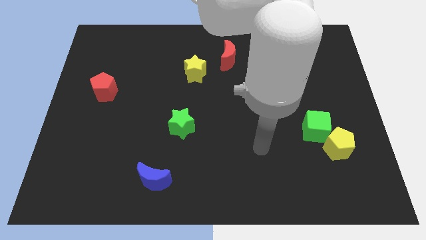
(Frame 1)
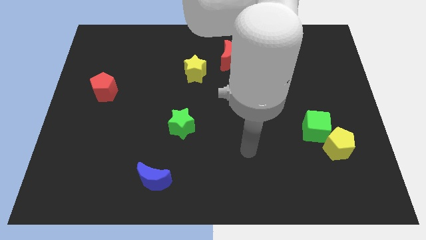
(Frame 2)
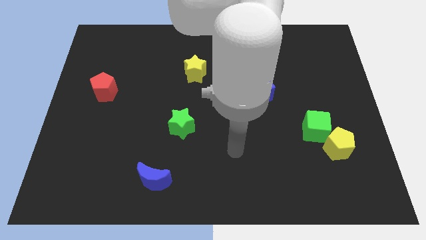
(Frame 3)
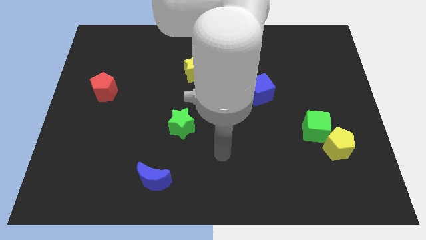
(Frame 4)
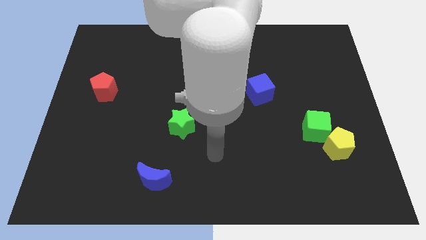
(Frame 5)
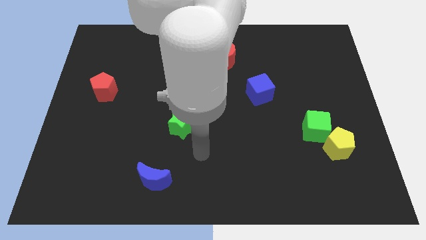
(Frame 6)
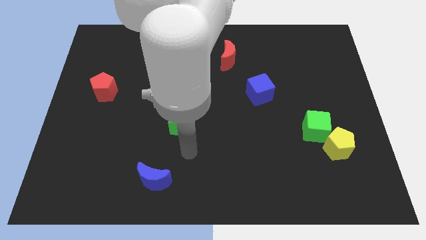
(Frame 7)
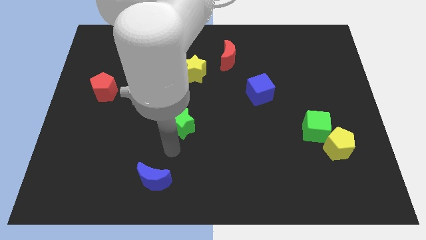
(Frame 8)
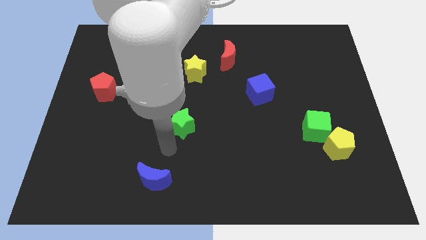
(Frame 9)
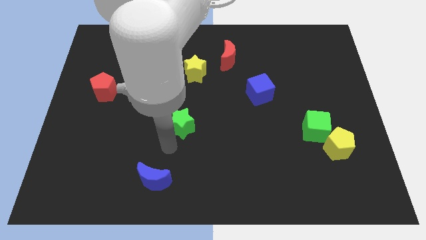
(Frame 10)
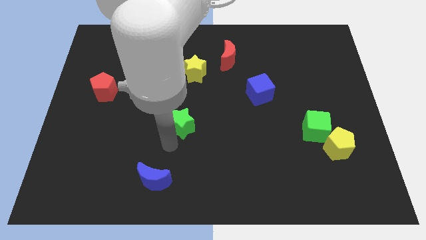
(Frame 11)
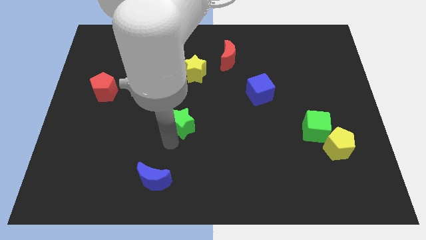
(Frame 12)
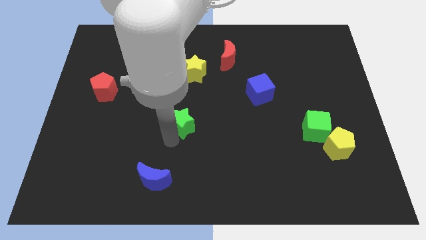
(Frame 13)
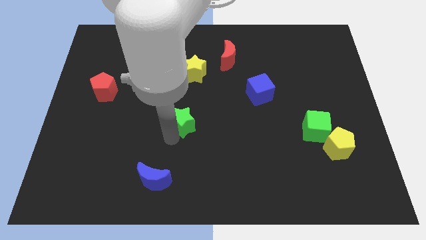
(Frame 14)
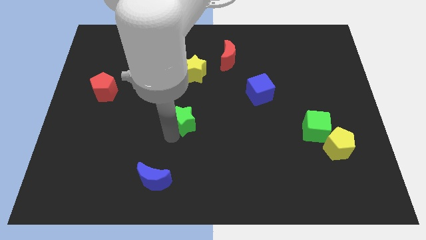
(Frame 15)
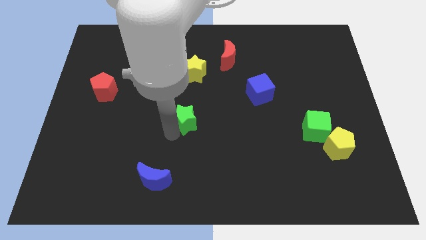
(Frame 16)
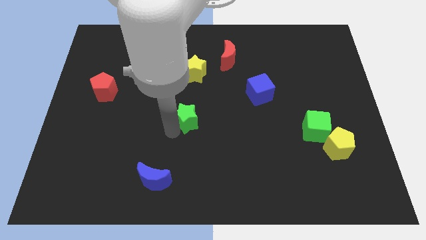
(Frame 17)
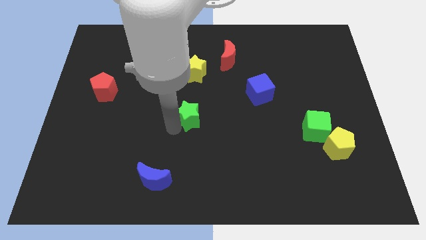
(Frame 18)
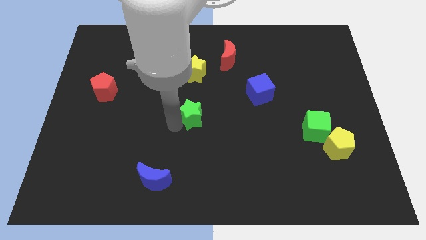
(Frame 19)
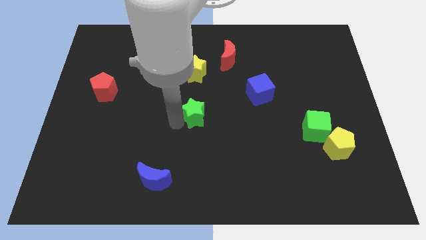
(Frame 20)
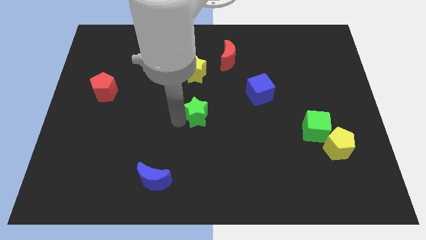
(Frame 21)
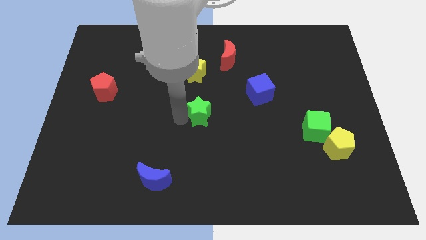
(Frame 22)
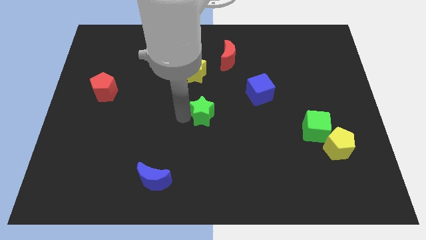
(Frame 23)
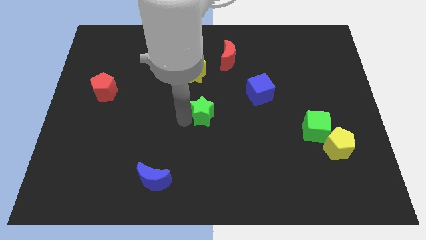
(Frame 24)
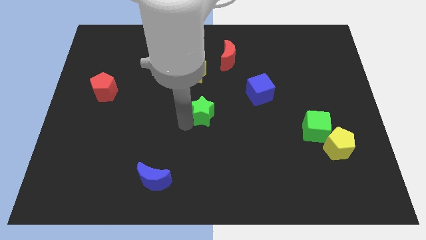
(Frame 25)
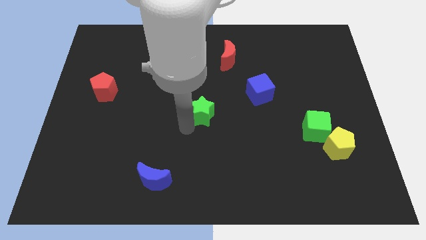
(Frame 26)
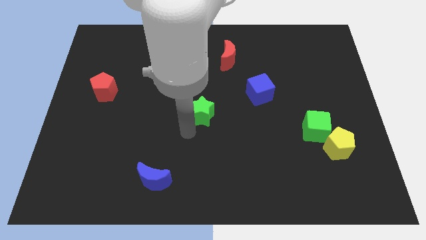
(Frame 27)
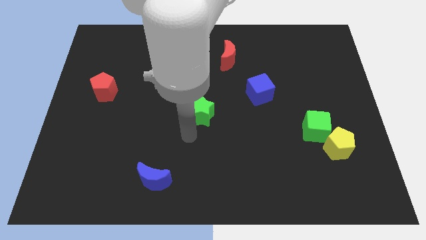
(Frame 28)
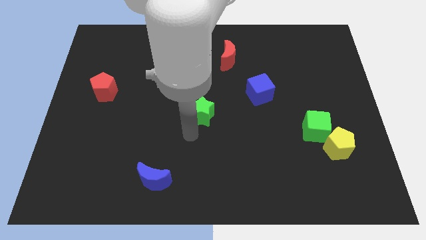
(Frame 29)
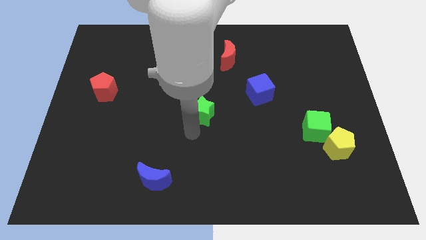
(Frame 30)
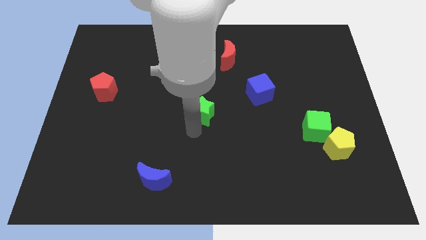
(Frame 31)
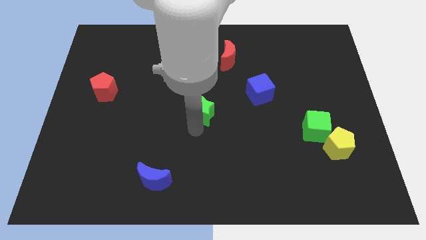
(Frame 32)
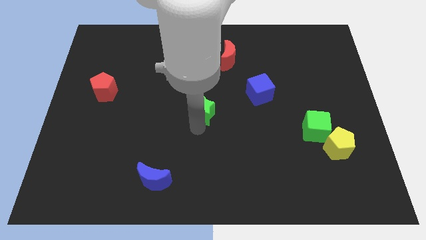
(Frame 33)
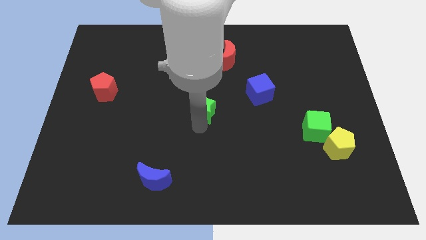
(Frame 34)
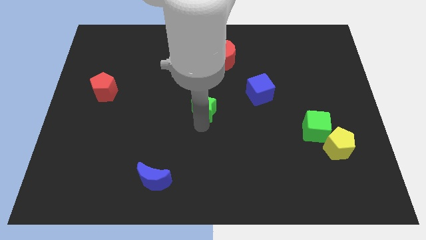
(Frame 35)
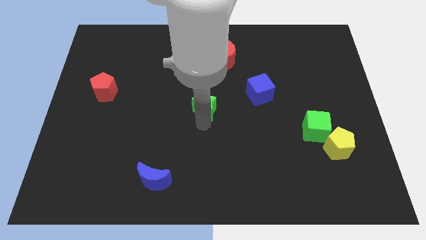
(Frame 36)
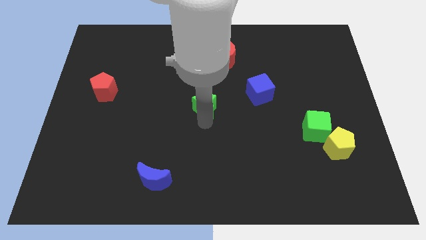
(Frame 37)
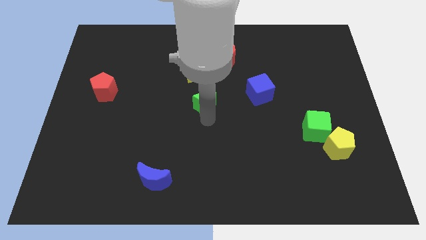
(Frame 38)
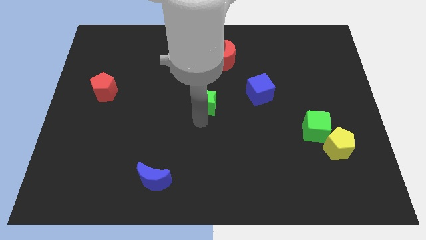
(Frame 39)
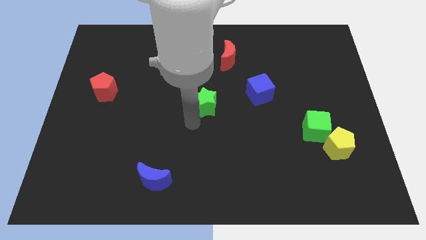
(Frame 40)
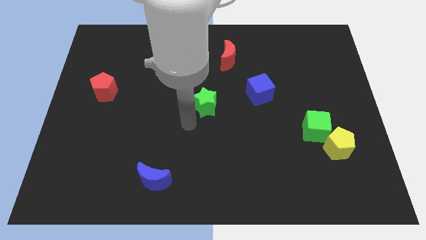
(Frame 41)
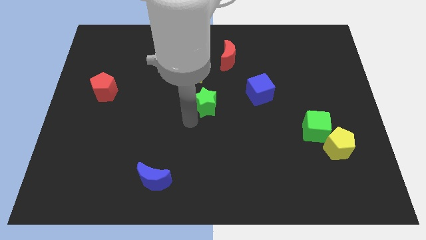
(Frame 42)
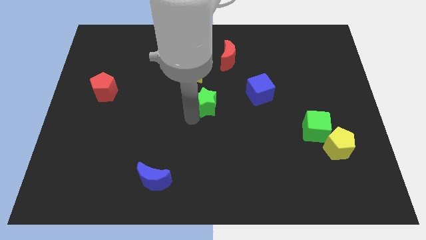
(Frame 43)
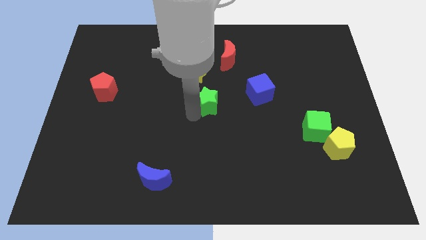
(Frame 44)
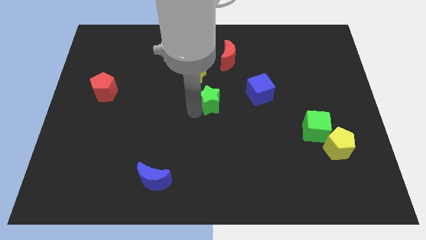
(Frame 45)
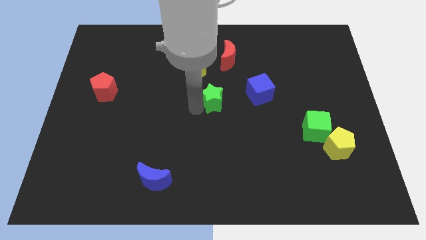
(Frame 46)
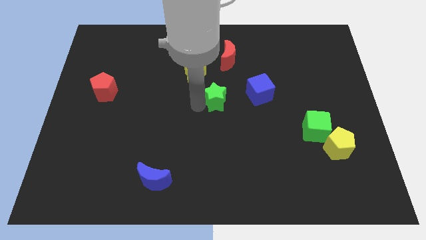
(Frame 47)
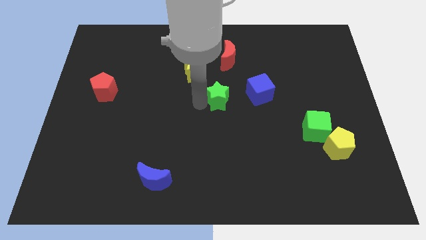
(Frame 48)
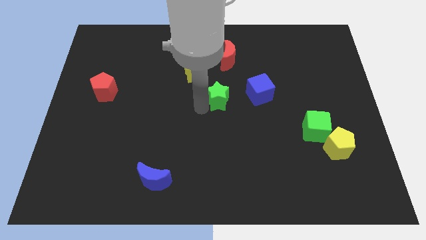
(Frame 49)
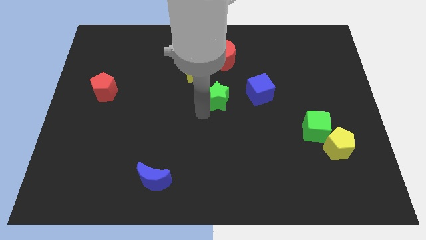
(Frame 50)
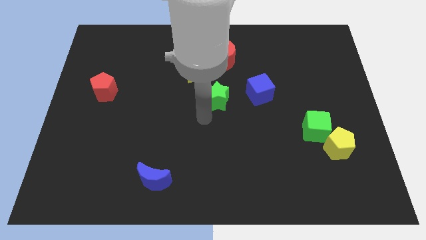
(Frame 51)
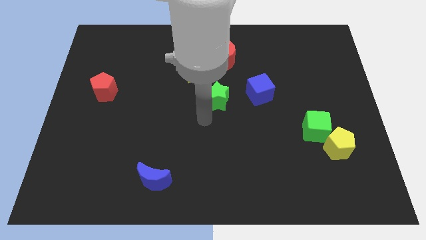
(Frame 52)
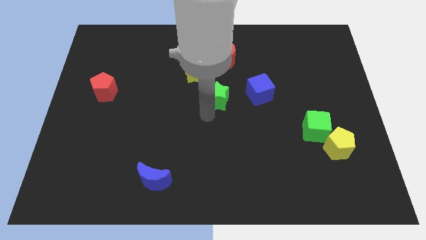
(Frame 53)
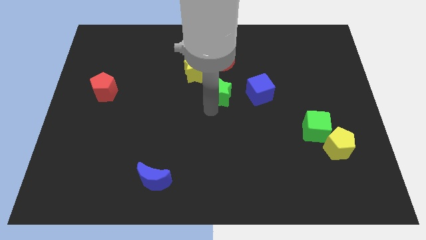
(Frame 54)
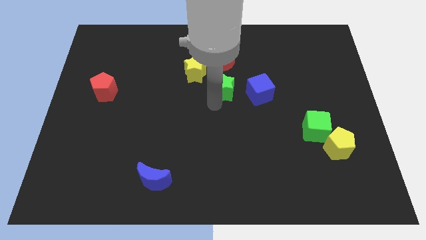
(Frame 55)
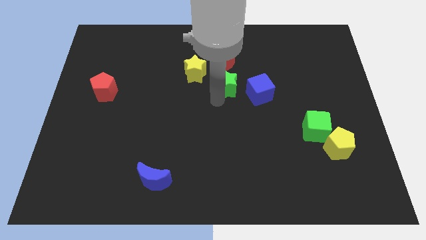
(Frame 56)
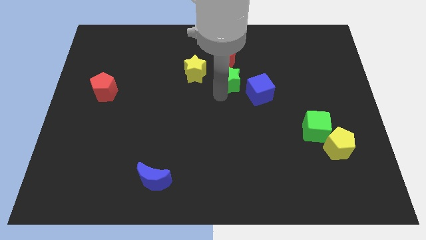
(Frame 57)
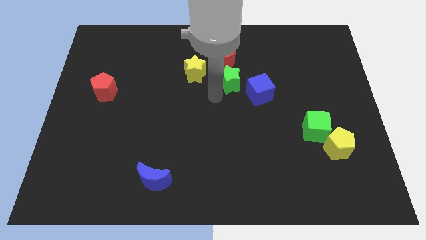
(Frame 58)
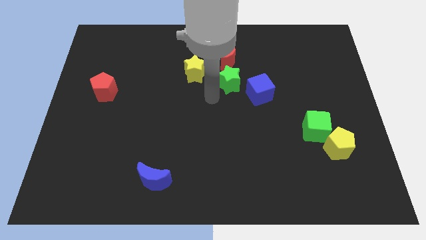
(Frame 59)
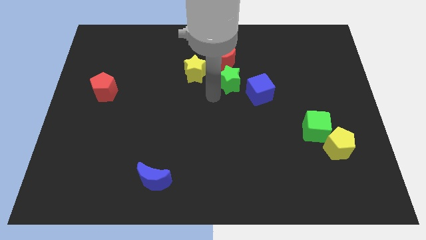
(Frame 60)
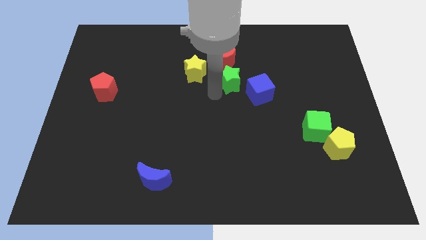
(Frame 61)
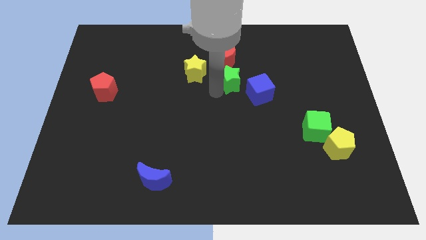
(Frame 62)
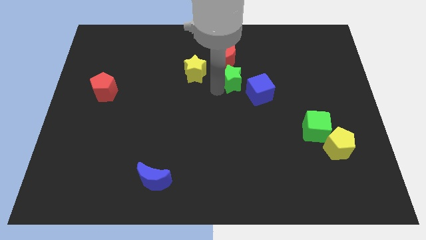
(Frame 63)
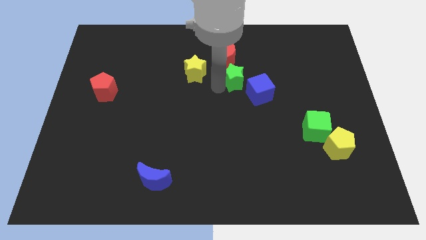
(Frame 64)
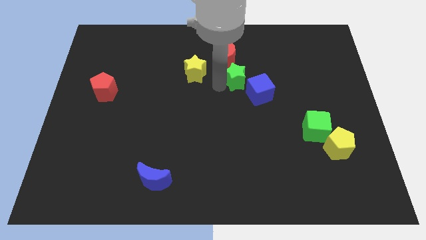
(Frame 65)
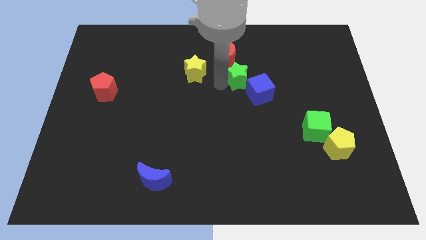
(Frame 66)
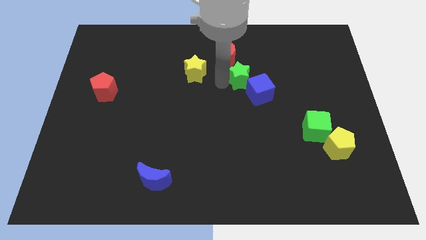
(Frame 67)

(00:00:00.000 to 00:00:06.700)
move the green star to the top of the blue cube
